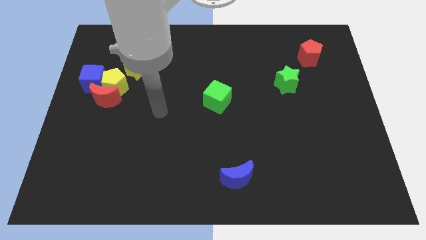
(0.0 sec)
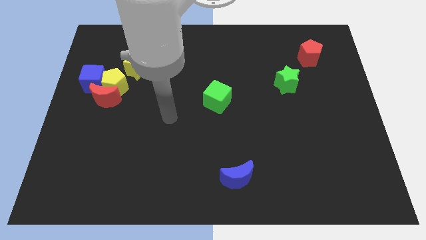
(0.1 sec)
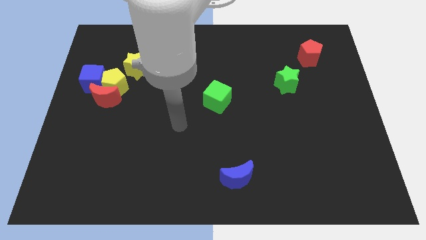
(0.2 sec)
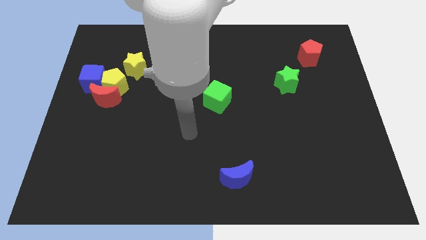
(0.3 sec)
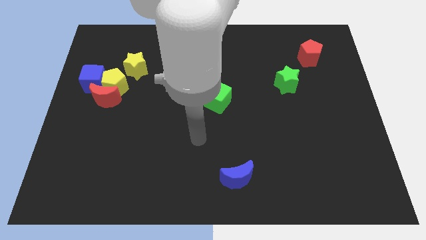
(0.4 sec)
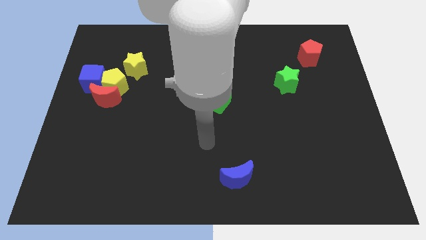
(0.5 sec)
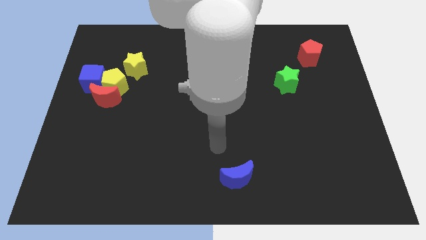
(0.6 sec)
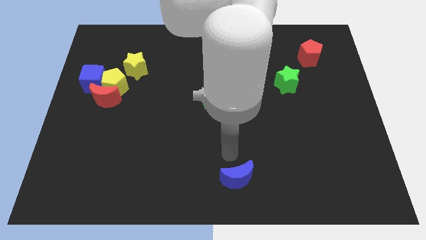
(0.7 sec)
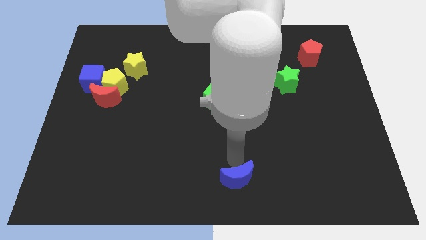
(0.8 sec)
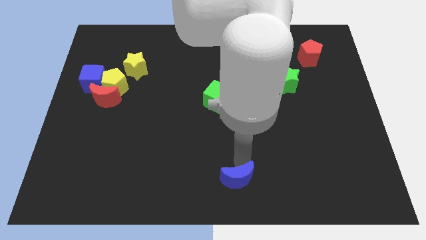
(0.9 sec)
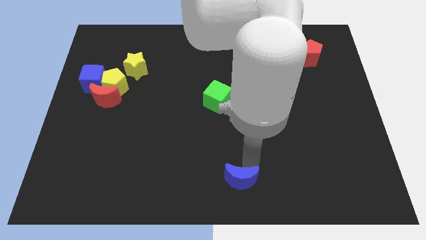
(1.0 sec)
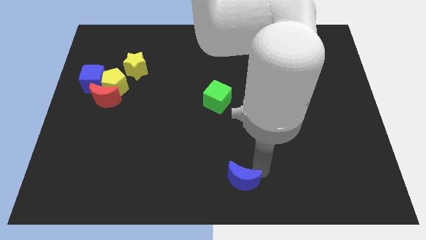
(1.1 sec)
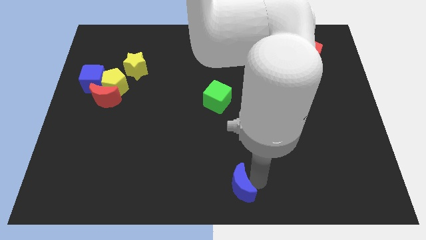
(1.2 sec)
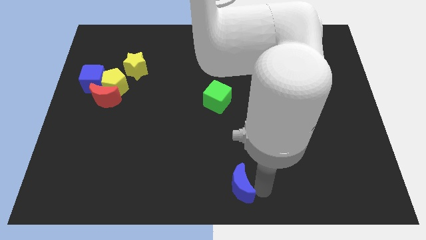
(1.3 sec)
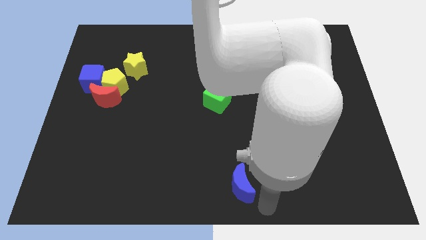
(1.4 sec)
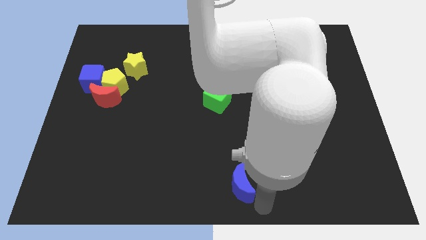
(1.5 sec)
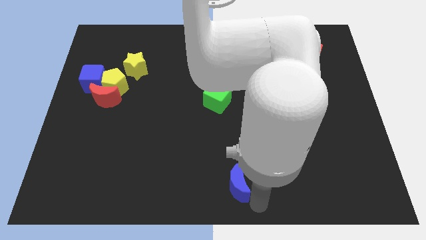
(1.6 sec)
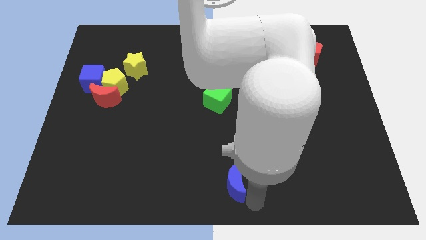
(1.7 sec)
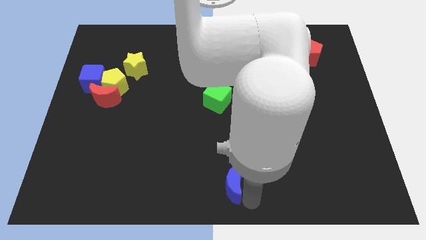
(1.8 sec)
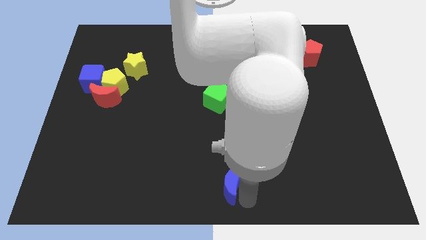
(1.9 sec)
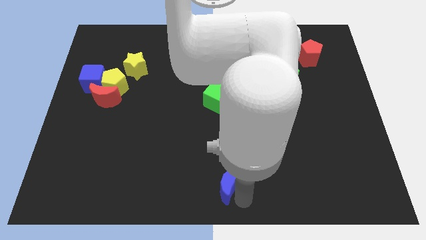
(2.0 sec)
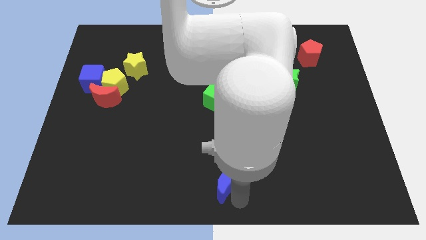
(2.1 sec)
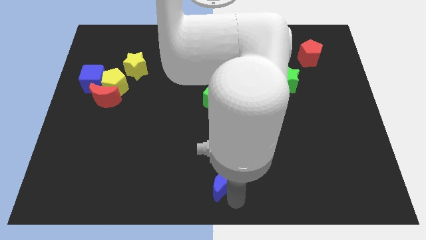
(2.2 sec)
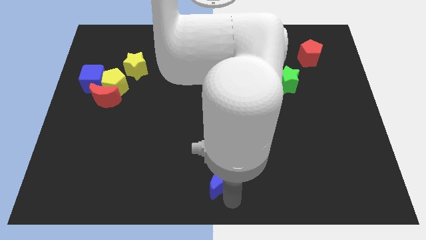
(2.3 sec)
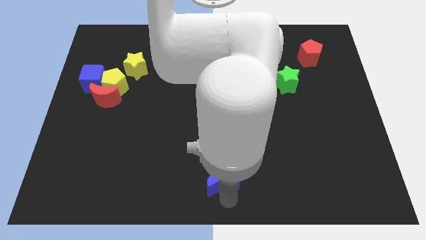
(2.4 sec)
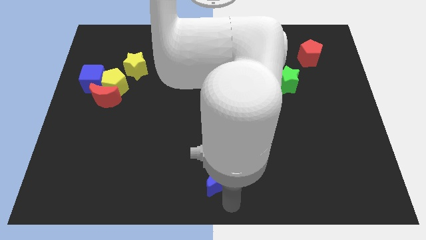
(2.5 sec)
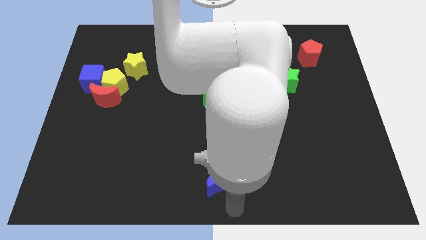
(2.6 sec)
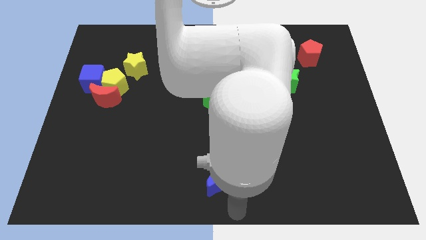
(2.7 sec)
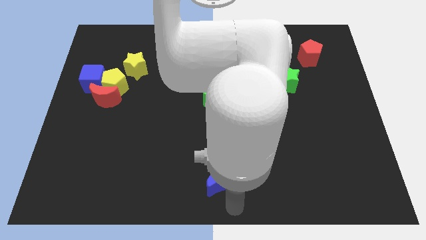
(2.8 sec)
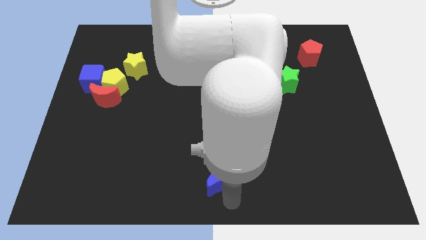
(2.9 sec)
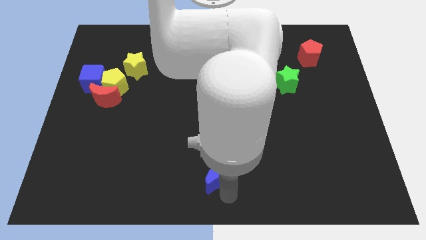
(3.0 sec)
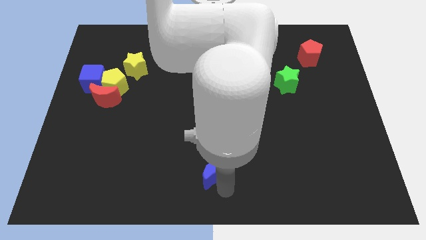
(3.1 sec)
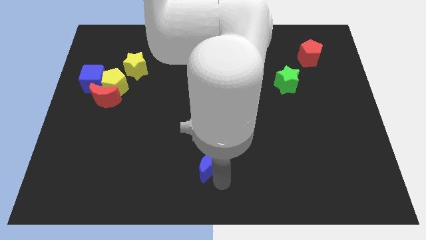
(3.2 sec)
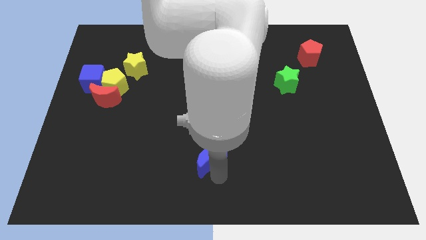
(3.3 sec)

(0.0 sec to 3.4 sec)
push the blue moon up and to the left a bit

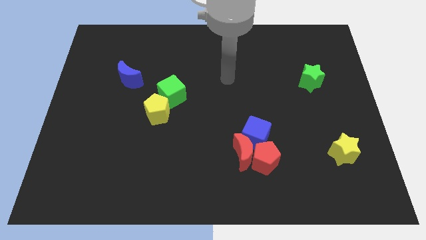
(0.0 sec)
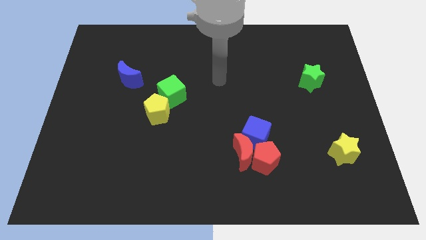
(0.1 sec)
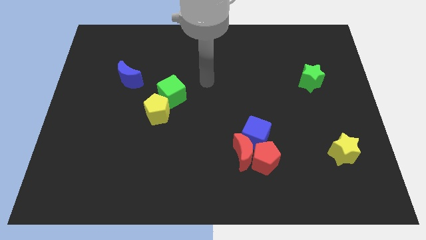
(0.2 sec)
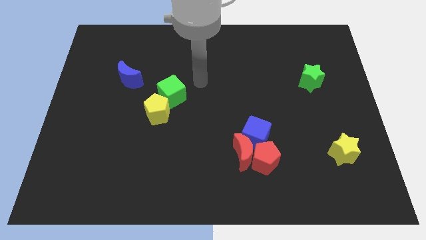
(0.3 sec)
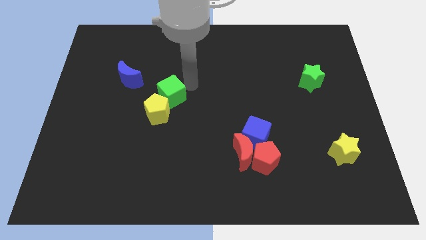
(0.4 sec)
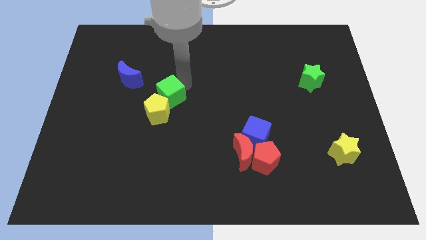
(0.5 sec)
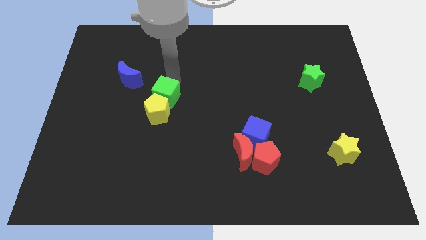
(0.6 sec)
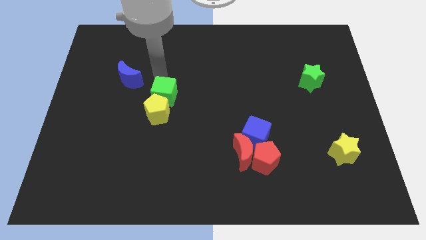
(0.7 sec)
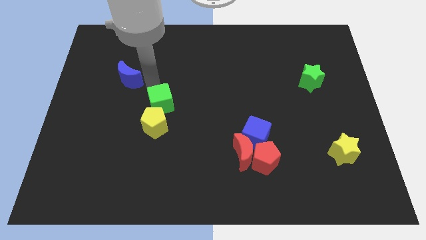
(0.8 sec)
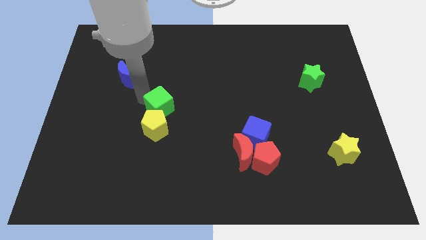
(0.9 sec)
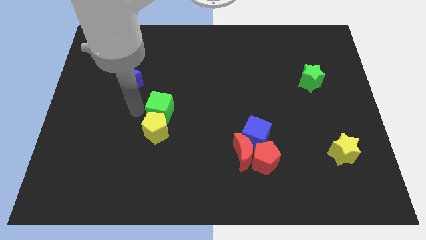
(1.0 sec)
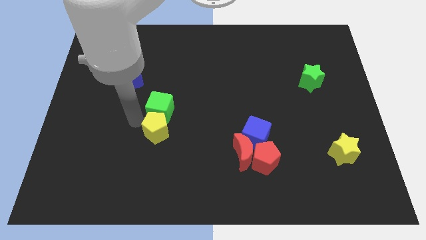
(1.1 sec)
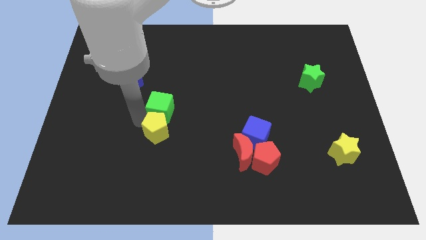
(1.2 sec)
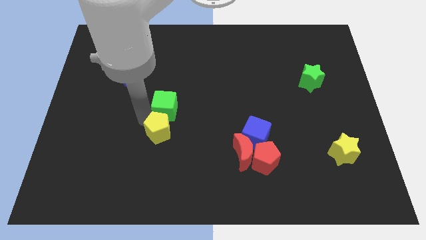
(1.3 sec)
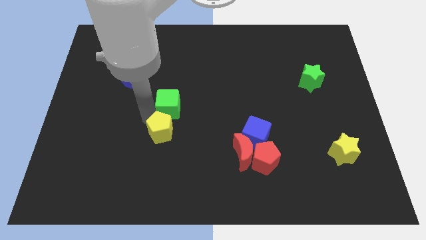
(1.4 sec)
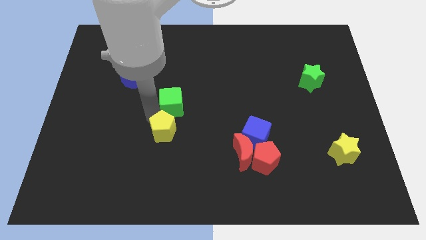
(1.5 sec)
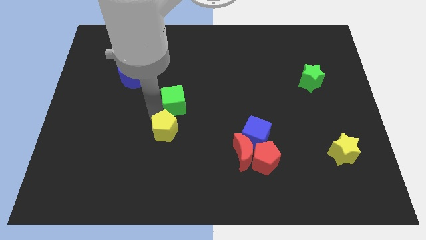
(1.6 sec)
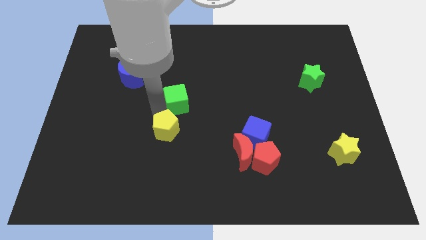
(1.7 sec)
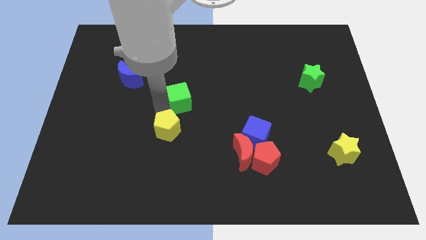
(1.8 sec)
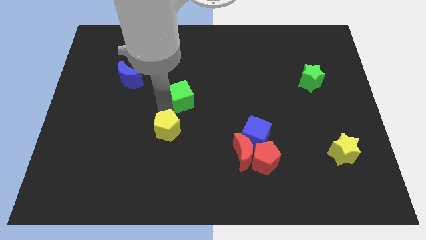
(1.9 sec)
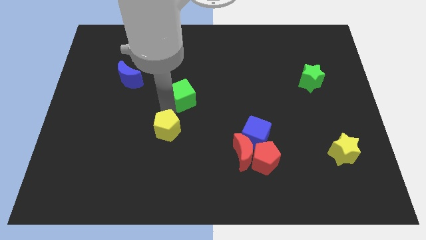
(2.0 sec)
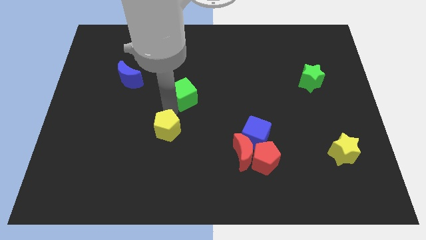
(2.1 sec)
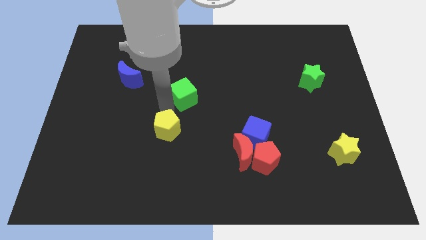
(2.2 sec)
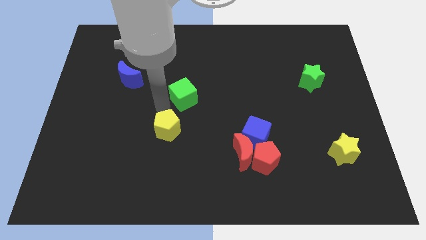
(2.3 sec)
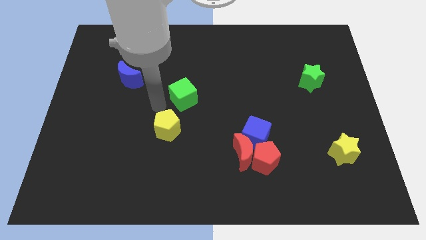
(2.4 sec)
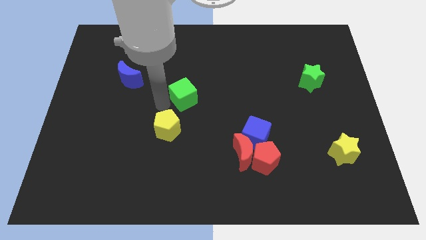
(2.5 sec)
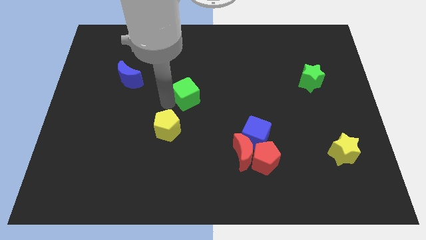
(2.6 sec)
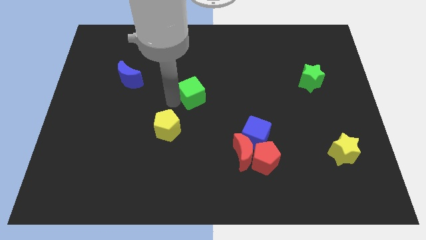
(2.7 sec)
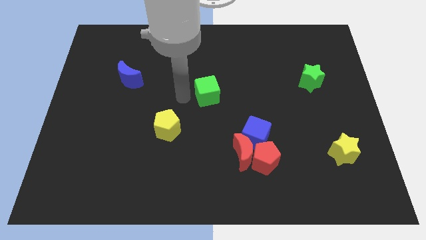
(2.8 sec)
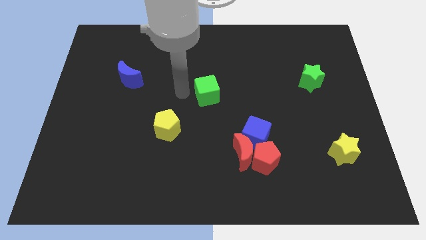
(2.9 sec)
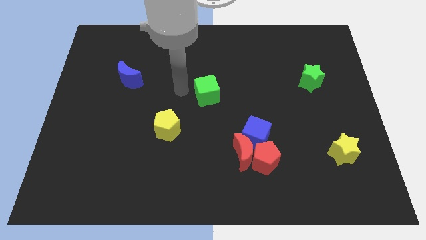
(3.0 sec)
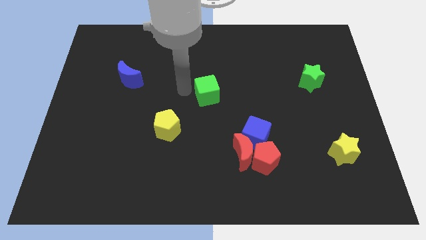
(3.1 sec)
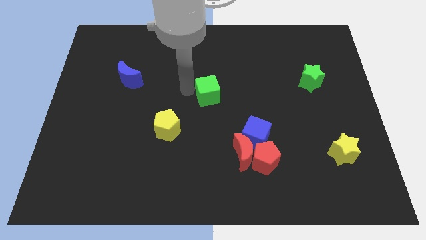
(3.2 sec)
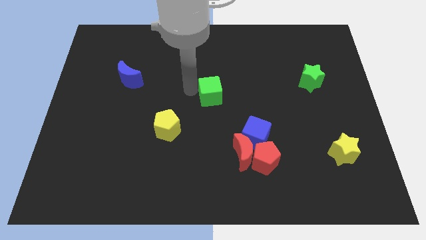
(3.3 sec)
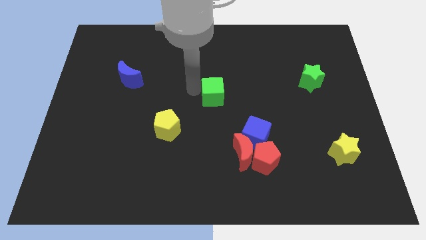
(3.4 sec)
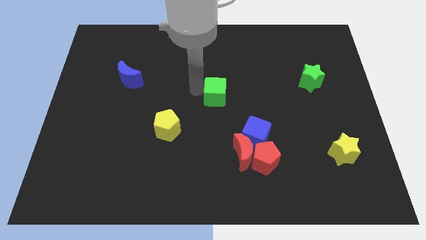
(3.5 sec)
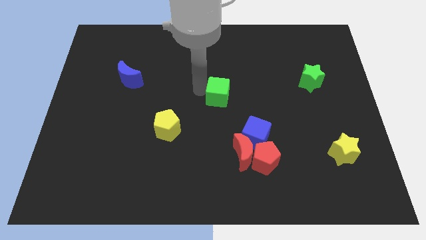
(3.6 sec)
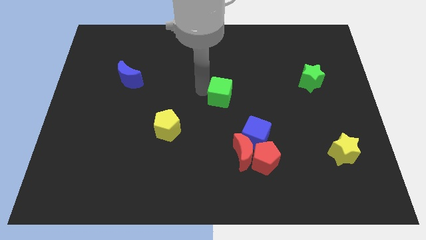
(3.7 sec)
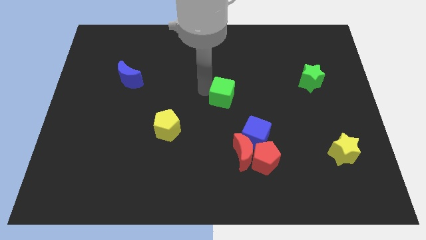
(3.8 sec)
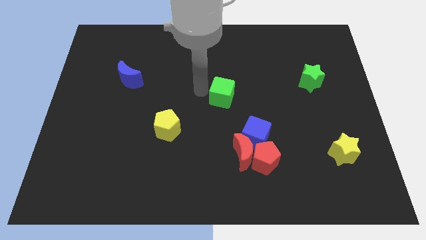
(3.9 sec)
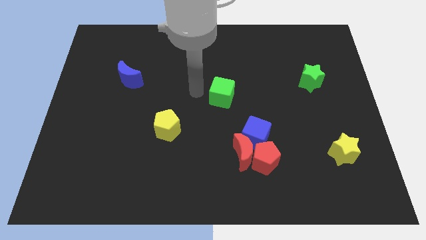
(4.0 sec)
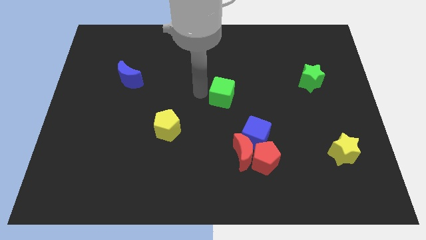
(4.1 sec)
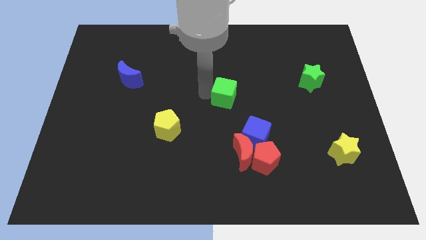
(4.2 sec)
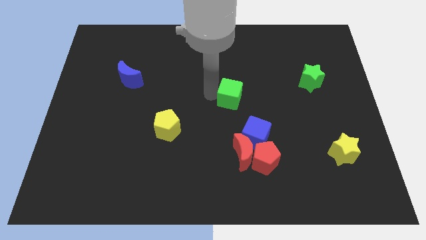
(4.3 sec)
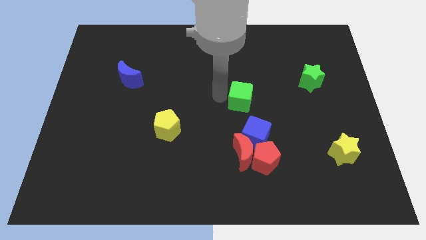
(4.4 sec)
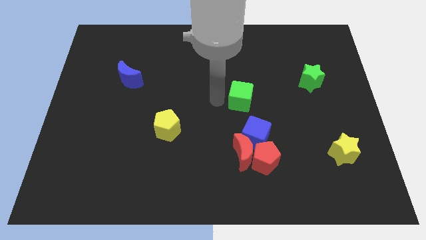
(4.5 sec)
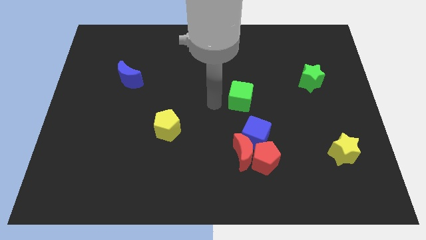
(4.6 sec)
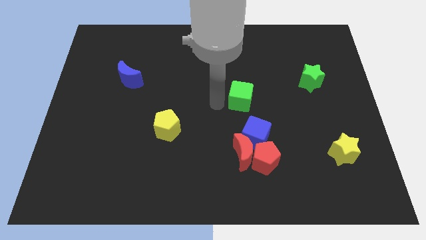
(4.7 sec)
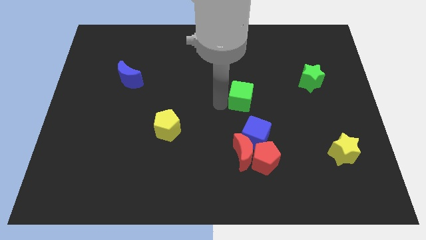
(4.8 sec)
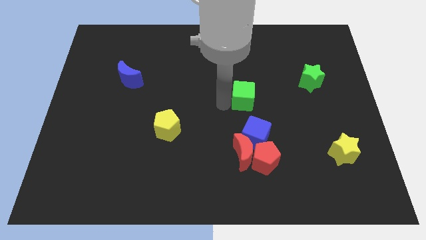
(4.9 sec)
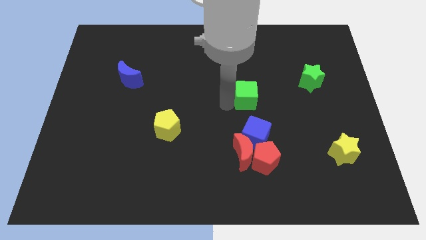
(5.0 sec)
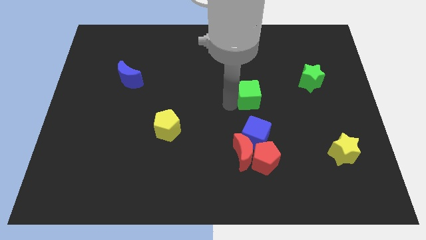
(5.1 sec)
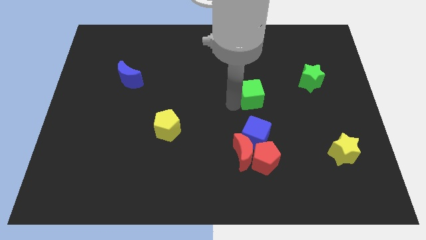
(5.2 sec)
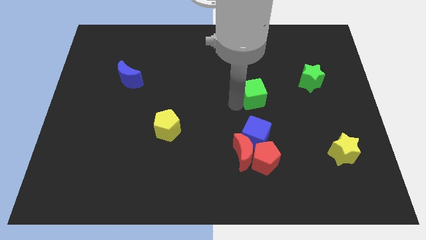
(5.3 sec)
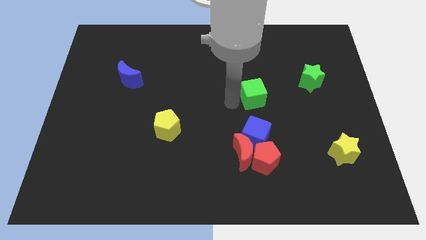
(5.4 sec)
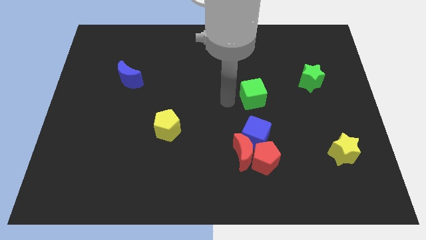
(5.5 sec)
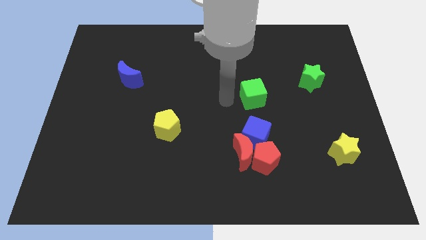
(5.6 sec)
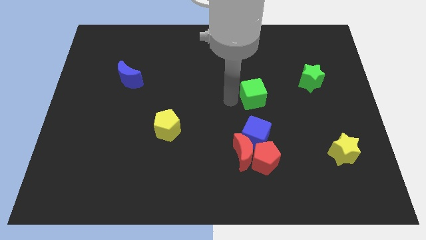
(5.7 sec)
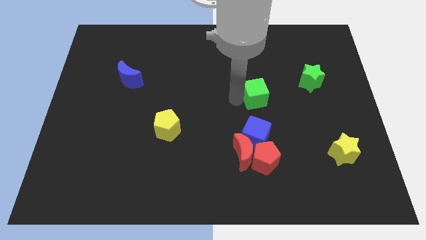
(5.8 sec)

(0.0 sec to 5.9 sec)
slide the green cube right
